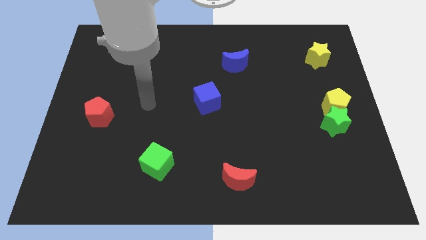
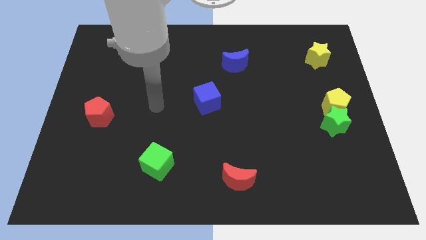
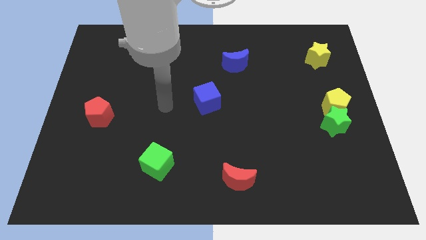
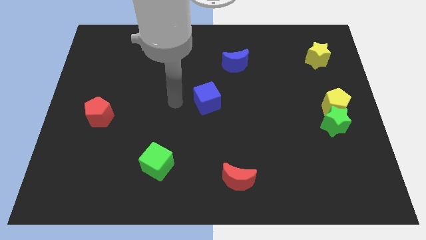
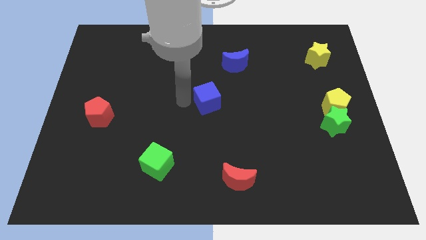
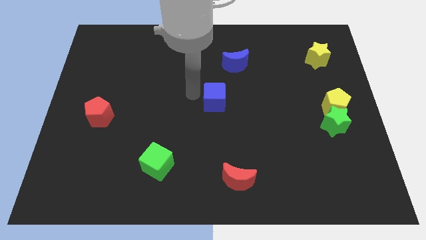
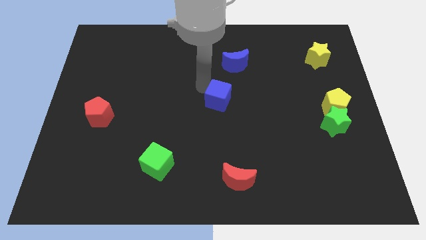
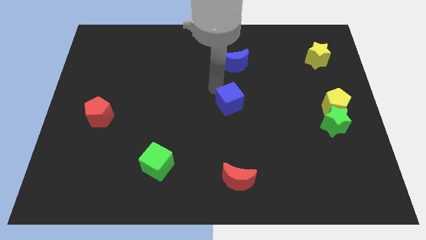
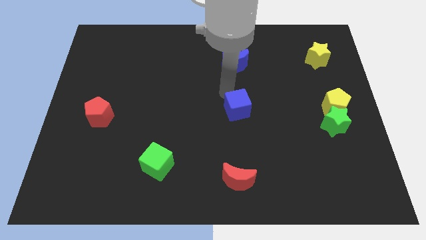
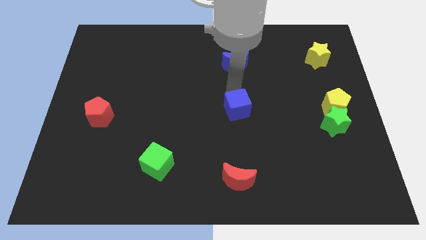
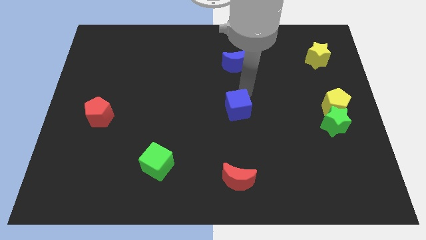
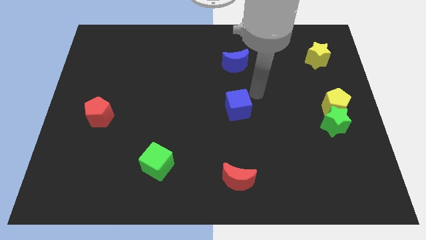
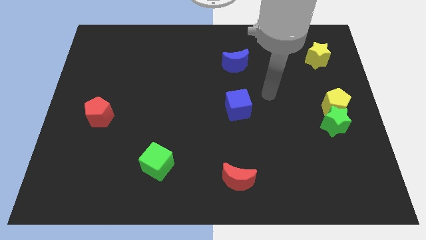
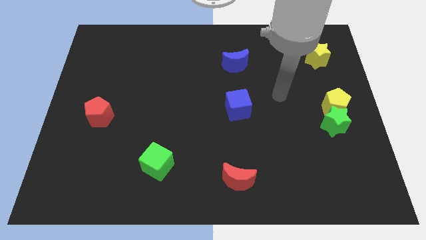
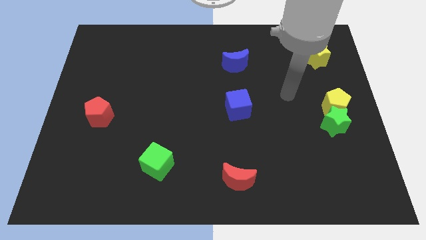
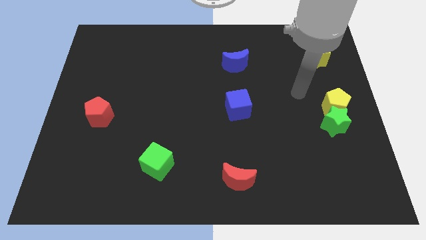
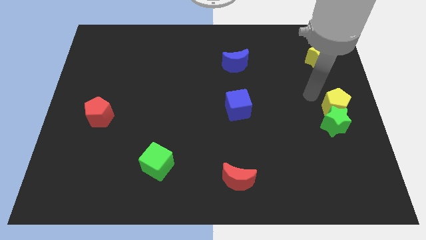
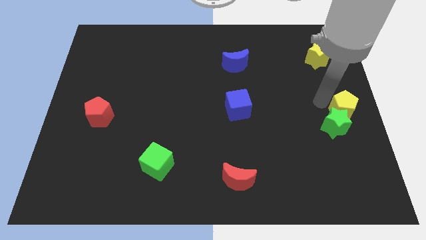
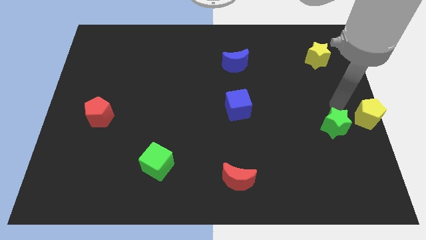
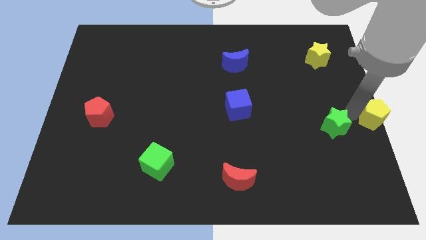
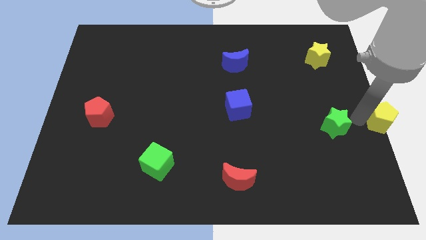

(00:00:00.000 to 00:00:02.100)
move the green star away from the yellow pentagon

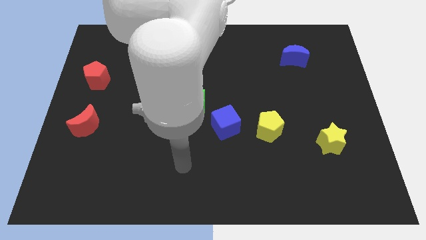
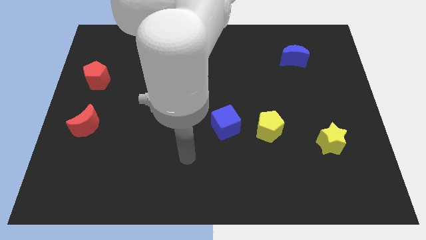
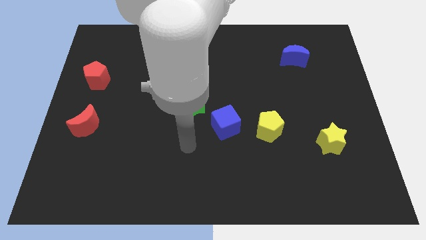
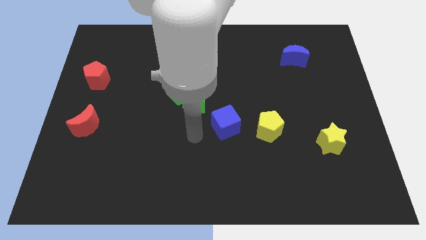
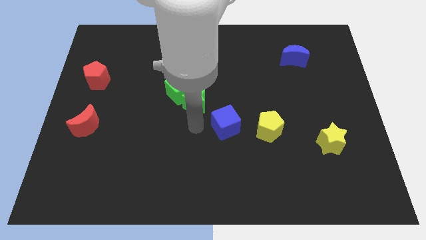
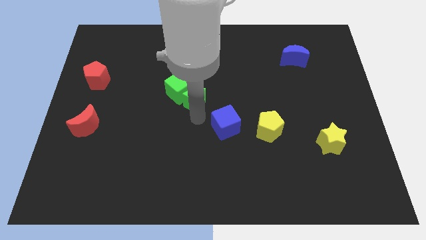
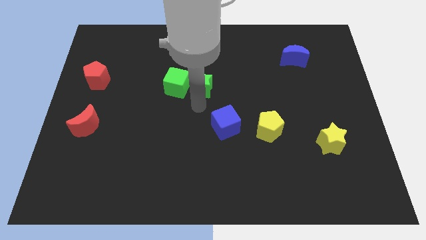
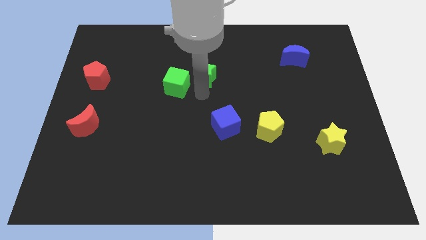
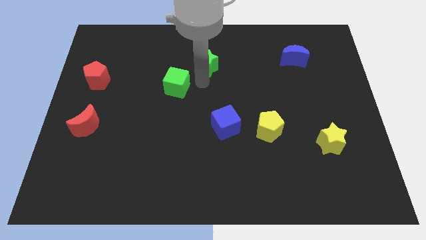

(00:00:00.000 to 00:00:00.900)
separate the green cube from the green star

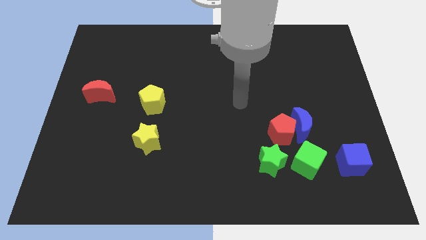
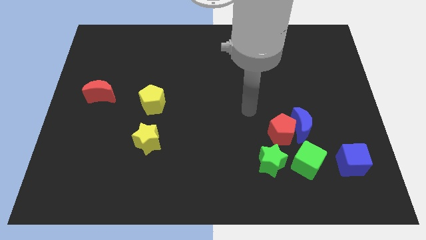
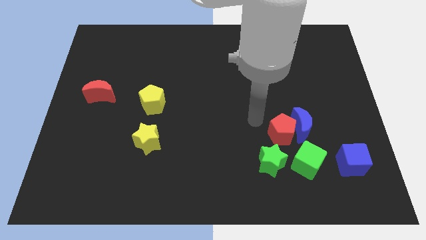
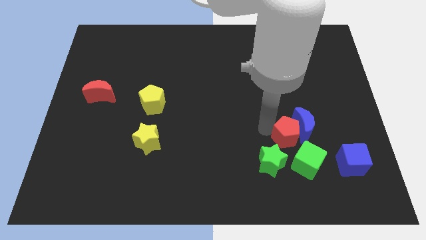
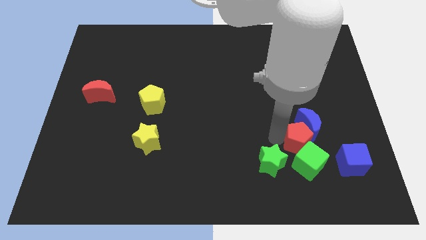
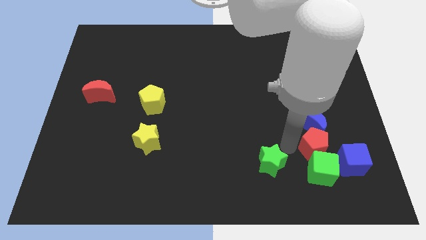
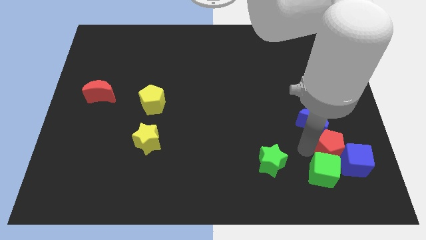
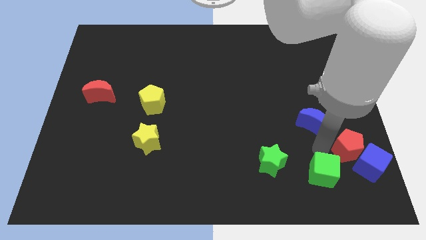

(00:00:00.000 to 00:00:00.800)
move the blue moon away from the red pentagon and green cube

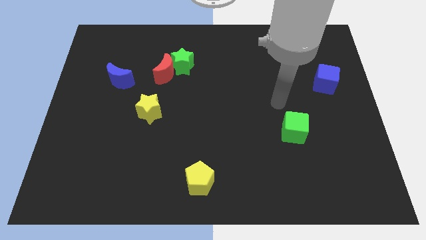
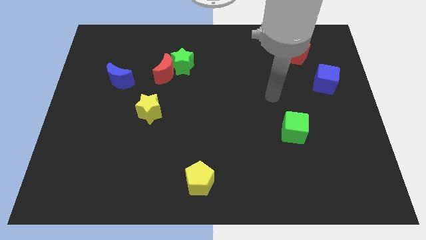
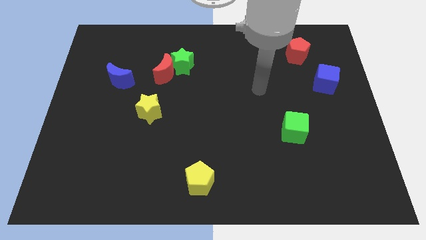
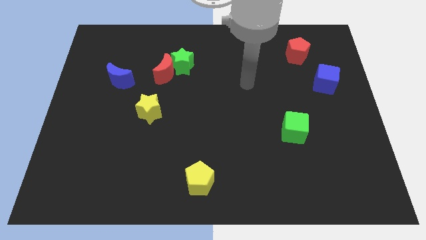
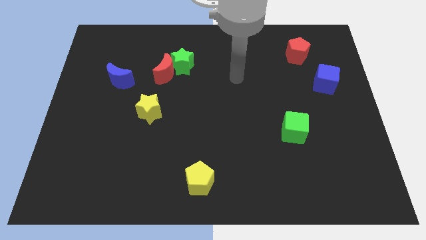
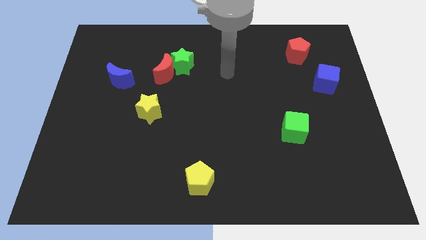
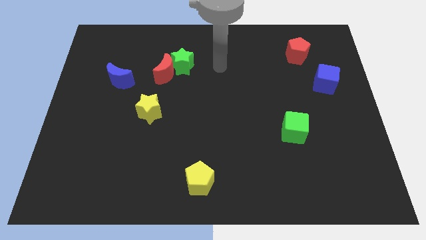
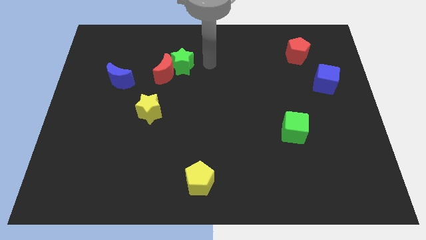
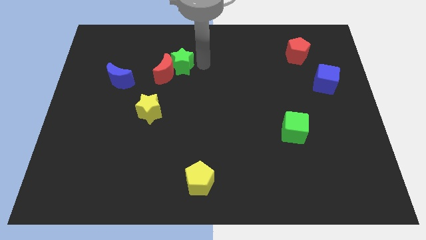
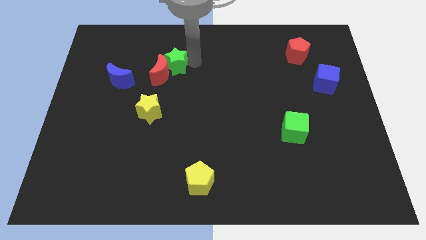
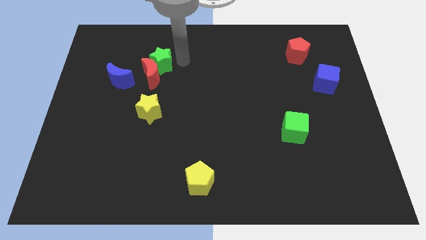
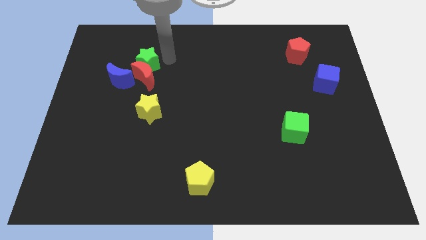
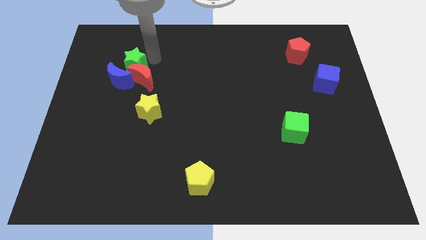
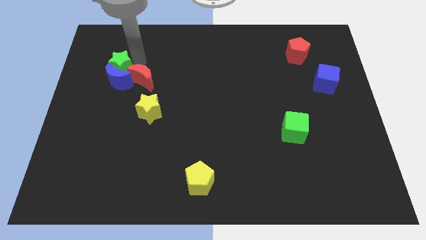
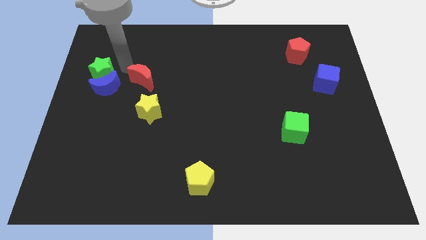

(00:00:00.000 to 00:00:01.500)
move the red moon away from the green star

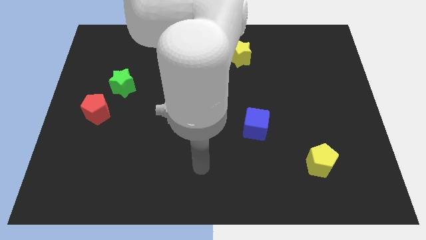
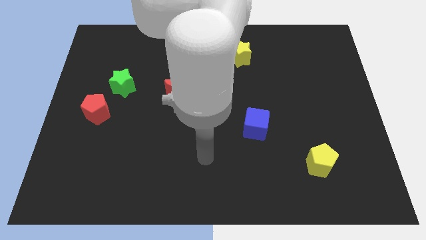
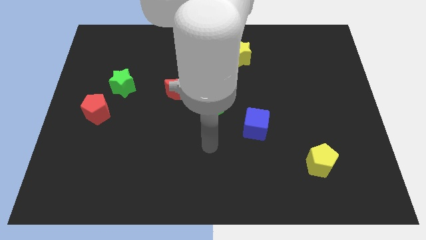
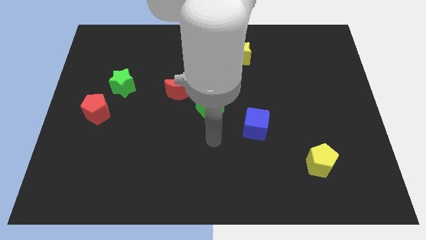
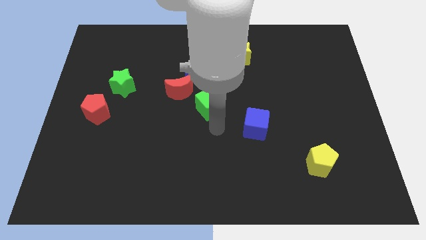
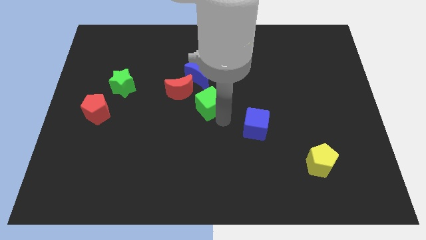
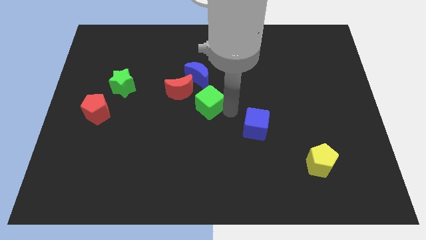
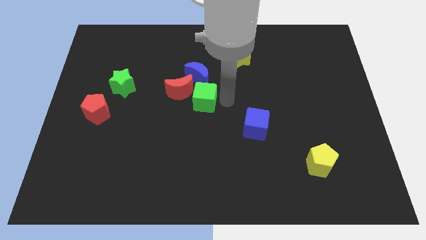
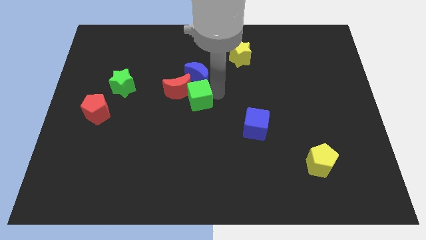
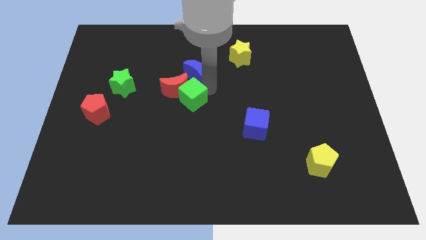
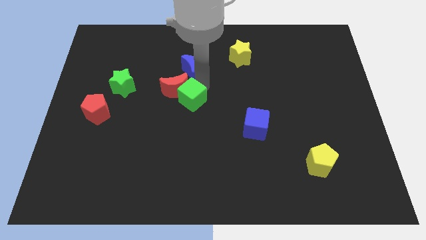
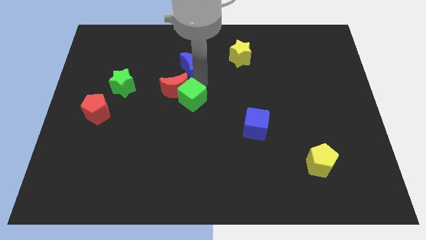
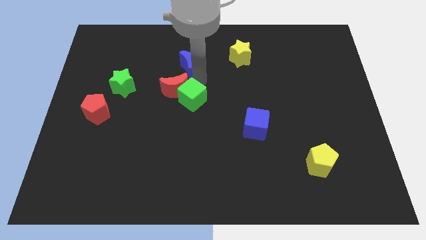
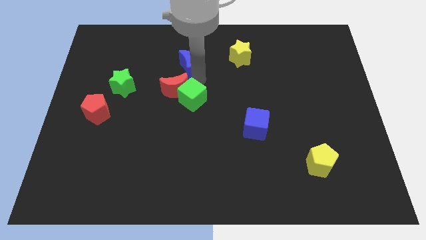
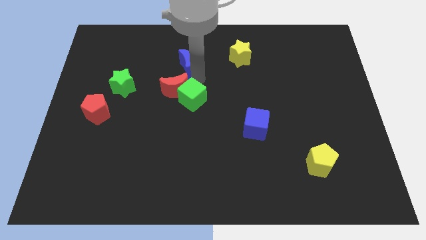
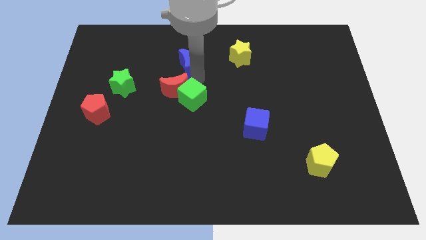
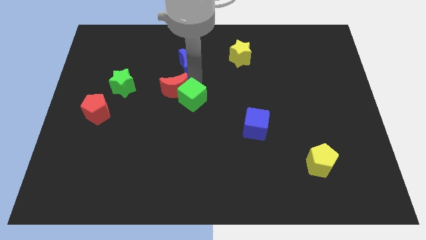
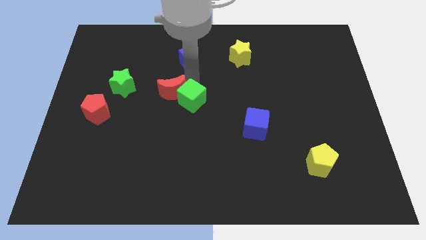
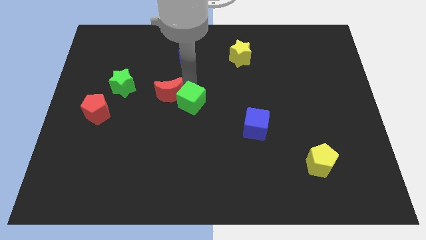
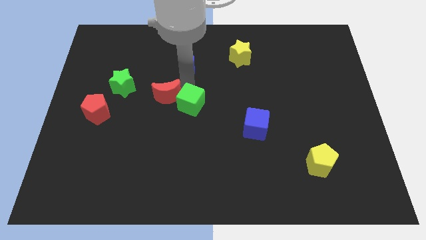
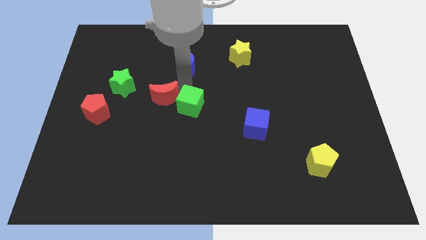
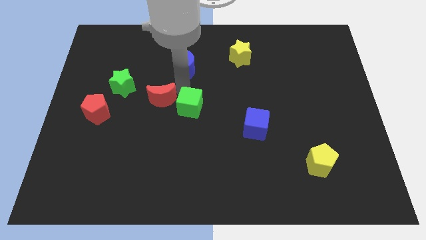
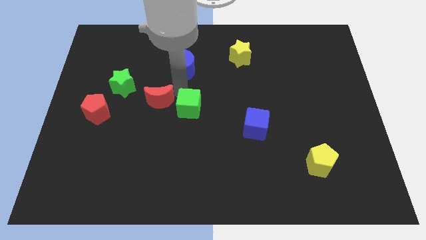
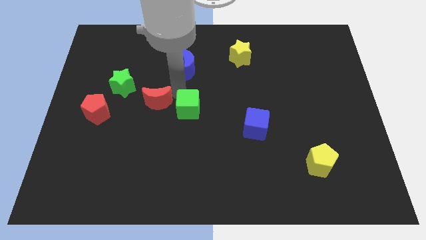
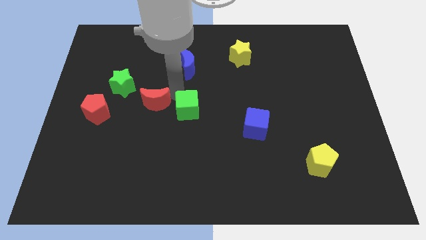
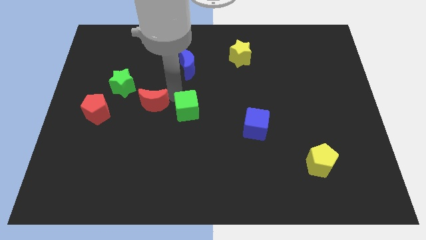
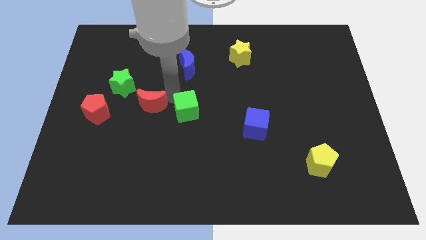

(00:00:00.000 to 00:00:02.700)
separate the red moon from the blue moon and green cube

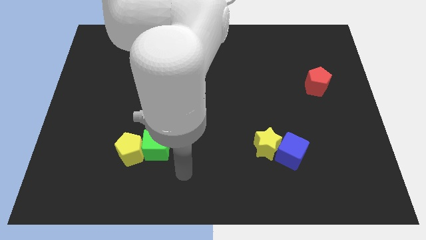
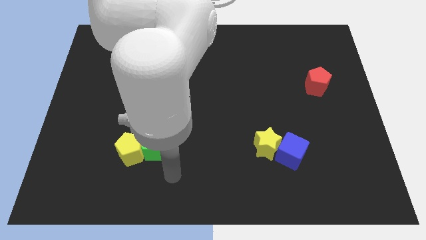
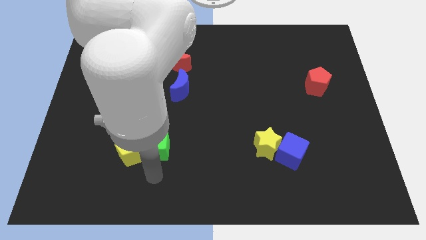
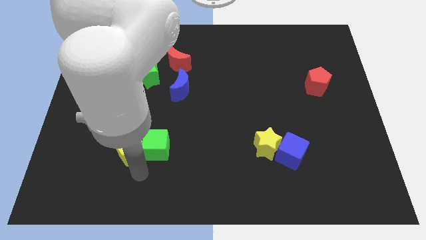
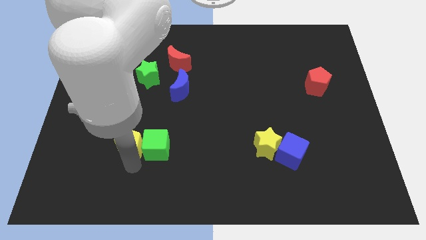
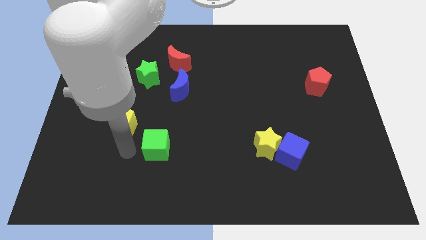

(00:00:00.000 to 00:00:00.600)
move the green cube away from the yellow pentagon

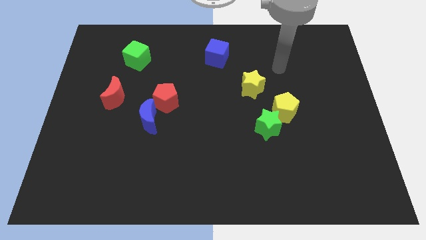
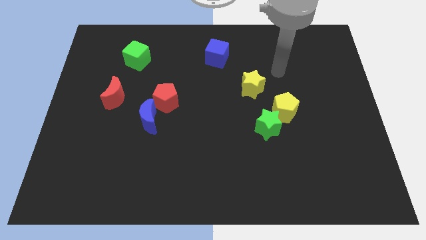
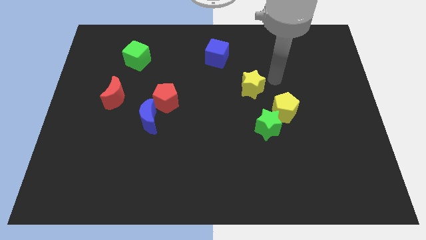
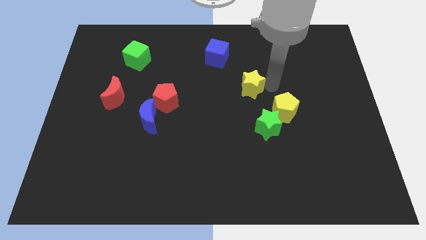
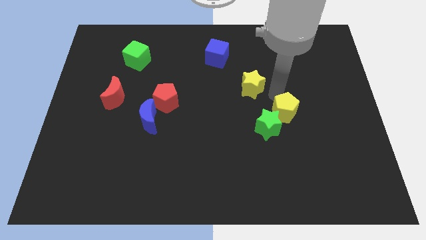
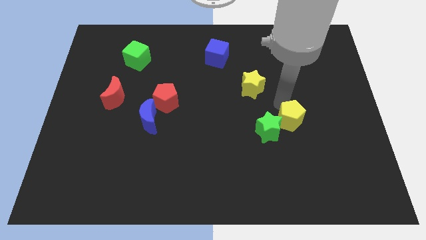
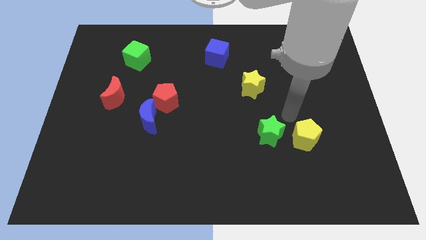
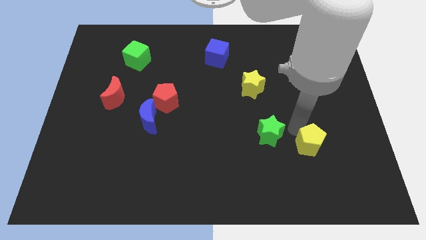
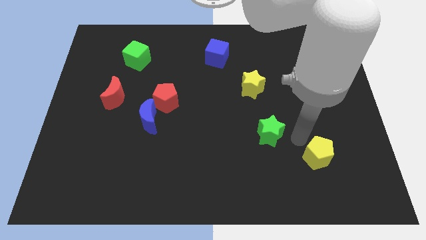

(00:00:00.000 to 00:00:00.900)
pull the green star apart from the yellow pentagon

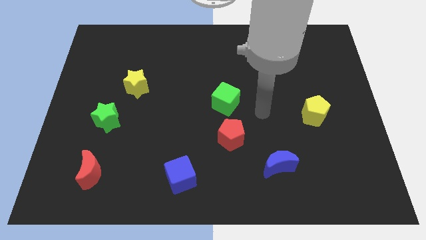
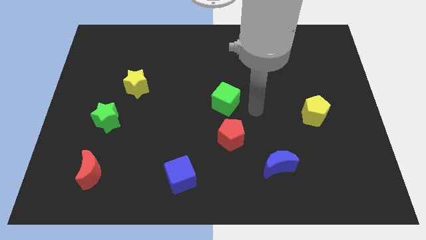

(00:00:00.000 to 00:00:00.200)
pull the red pentagon apart from the green cube
